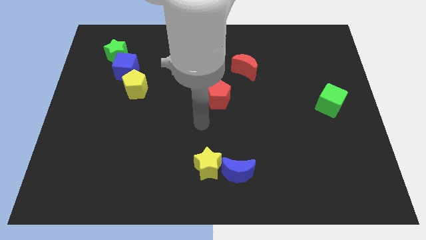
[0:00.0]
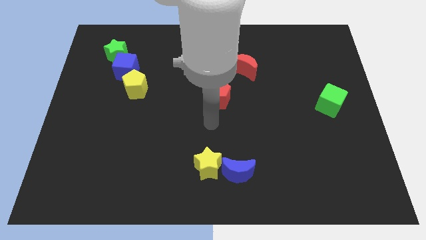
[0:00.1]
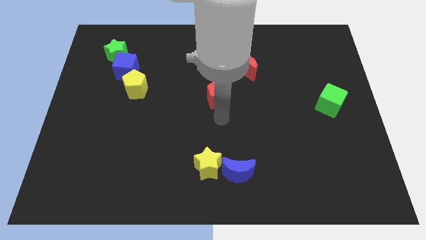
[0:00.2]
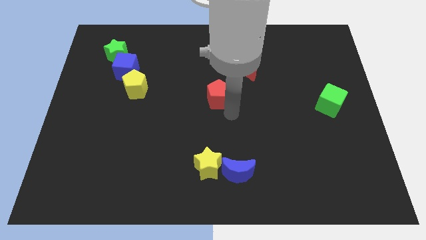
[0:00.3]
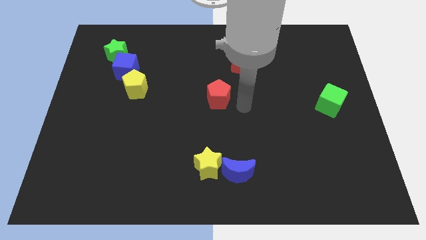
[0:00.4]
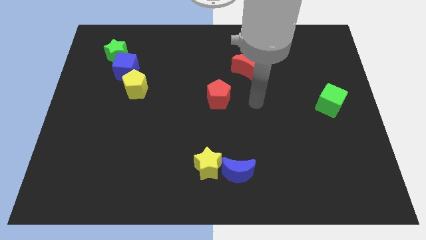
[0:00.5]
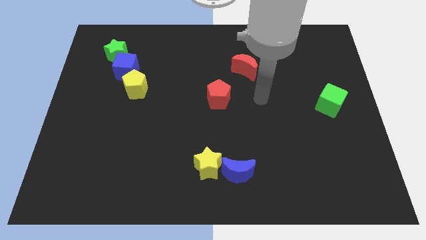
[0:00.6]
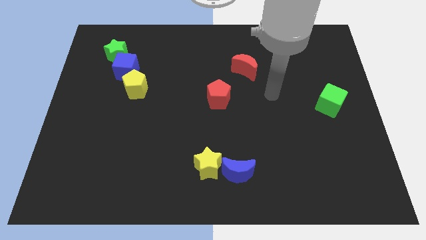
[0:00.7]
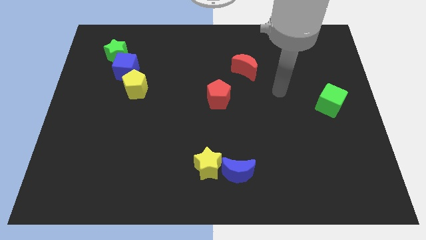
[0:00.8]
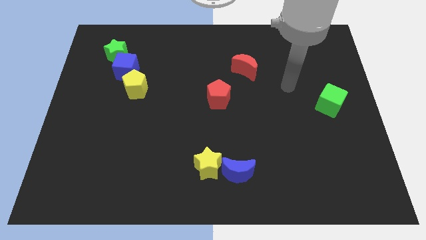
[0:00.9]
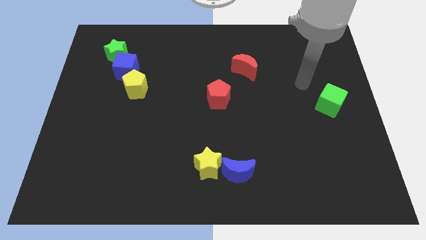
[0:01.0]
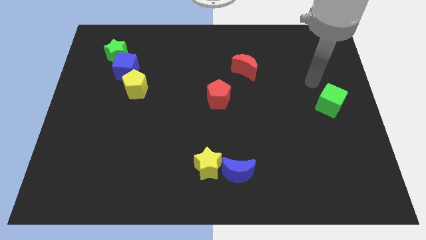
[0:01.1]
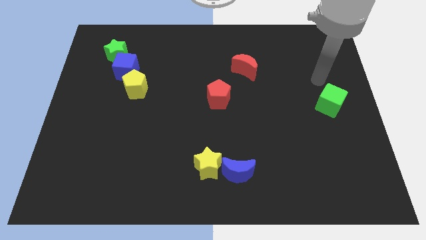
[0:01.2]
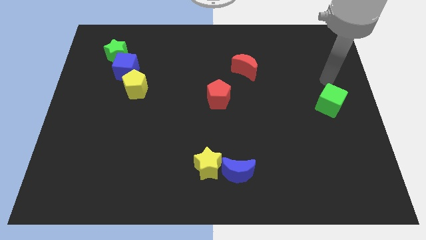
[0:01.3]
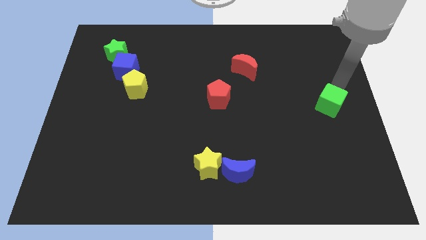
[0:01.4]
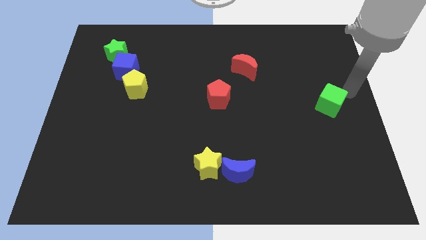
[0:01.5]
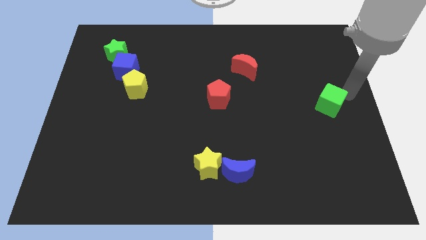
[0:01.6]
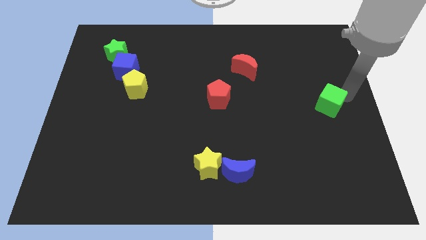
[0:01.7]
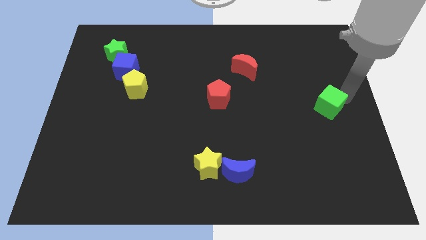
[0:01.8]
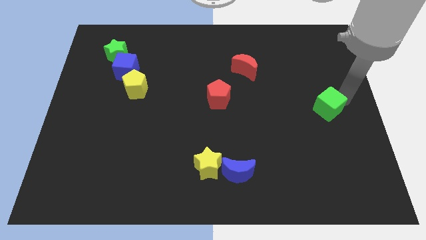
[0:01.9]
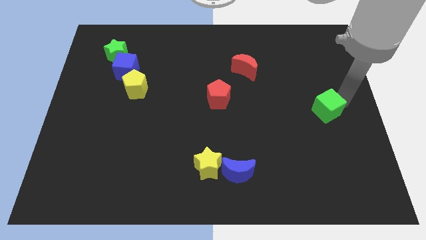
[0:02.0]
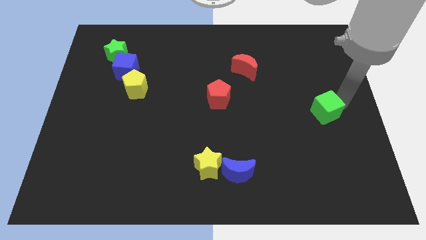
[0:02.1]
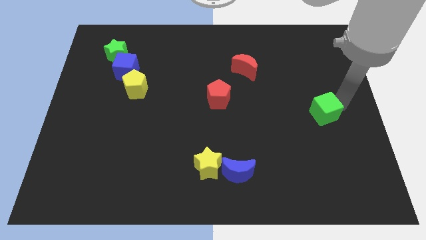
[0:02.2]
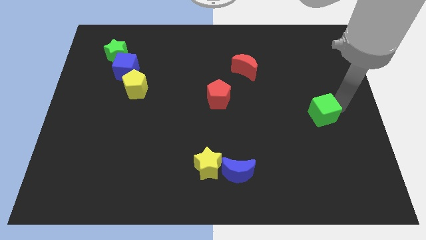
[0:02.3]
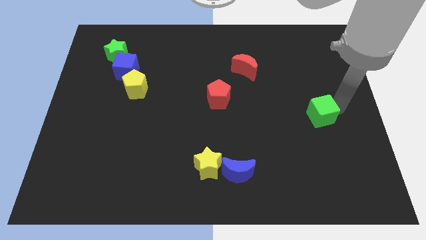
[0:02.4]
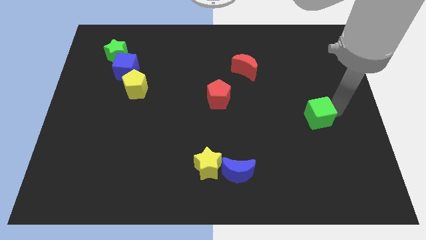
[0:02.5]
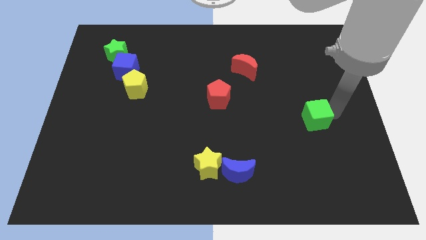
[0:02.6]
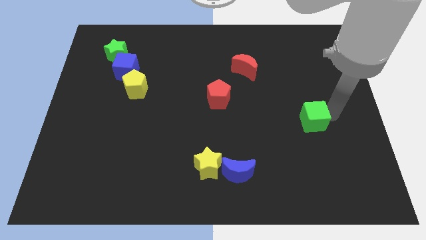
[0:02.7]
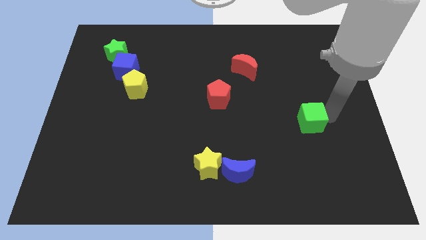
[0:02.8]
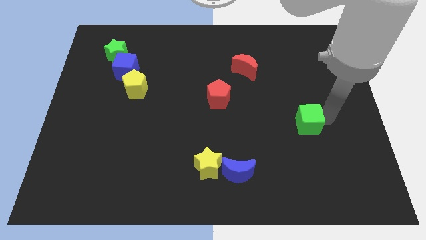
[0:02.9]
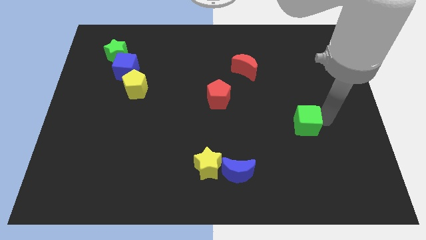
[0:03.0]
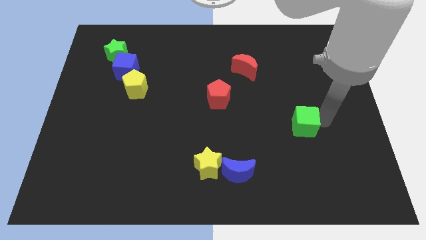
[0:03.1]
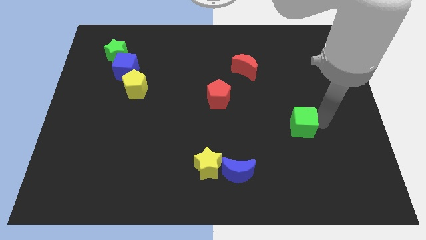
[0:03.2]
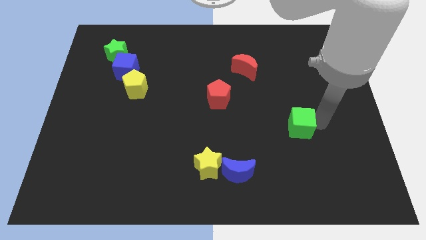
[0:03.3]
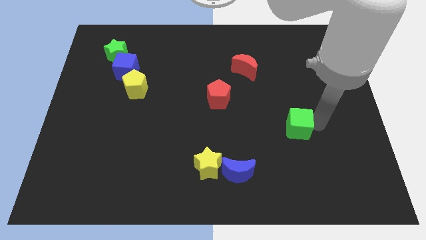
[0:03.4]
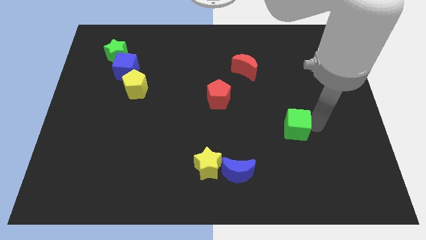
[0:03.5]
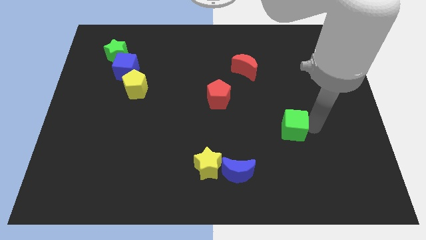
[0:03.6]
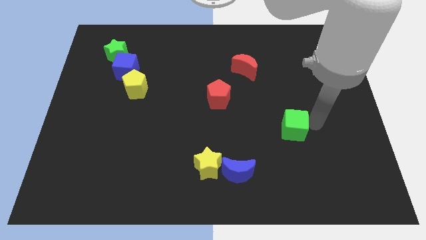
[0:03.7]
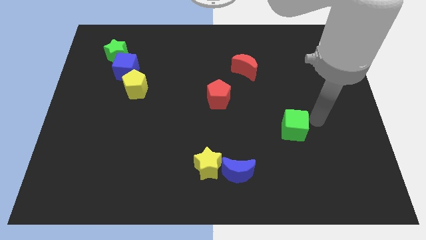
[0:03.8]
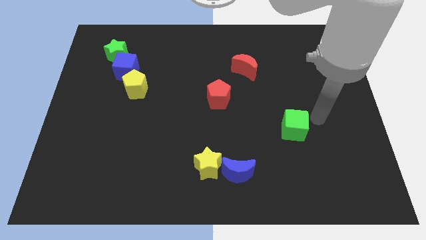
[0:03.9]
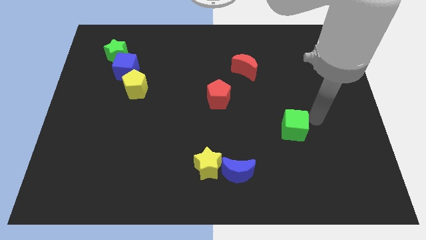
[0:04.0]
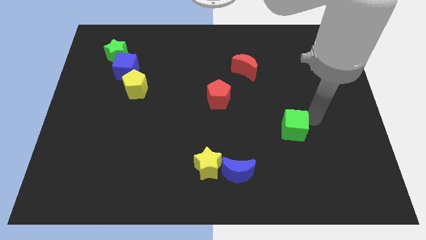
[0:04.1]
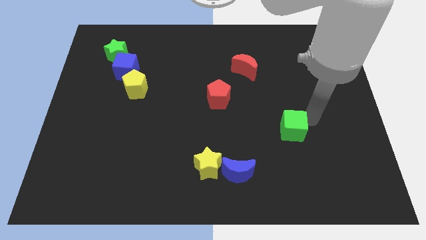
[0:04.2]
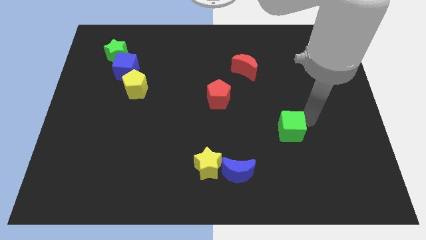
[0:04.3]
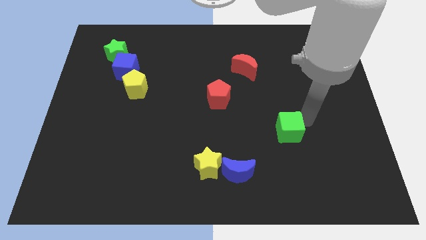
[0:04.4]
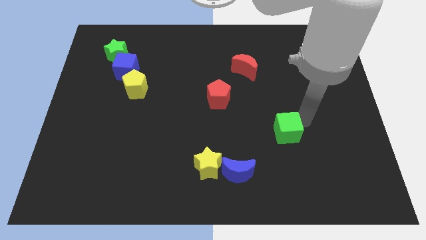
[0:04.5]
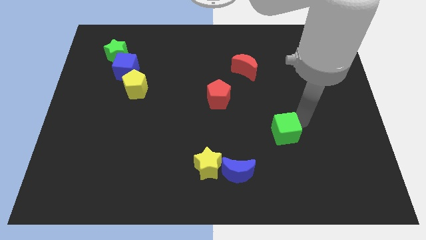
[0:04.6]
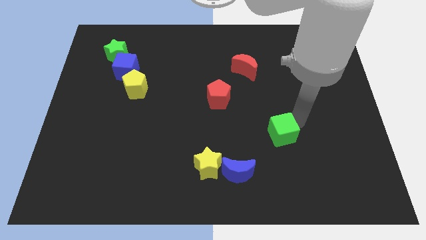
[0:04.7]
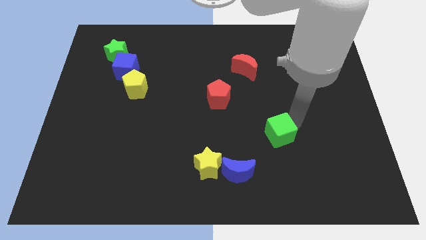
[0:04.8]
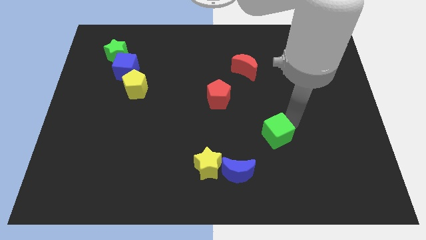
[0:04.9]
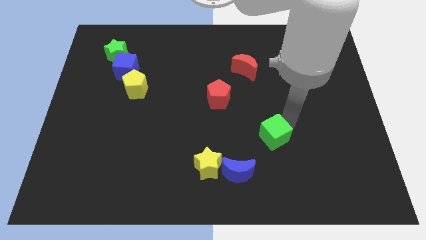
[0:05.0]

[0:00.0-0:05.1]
push the green cube diagonally up and to the right of the blue moon

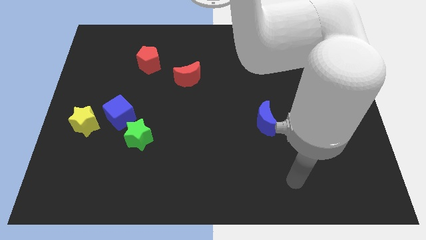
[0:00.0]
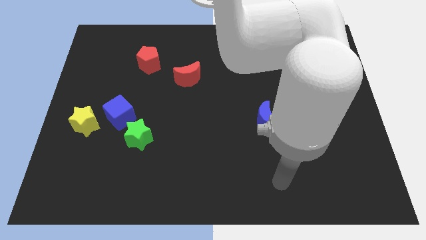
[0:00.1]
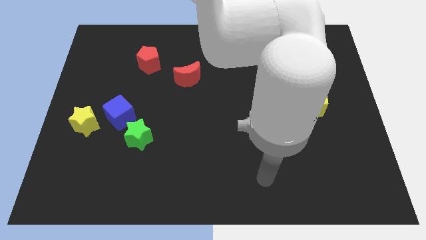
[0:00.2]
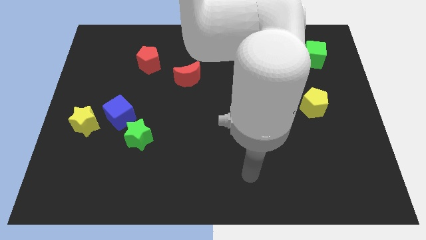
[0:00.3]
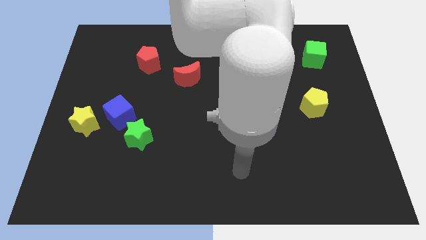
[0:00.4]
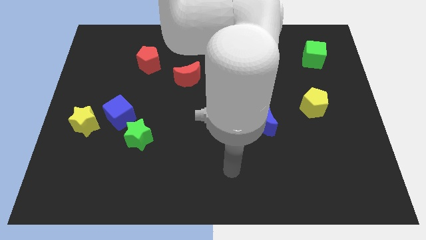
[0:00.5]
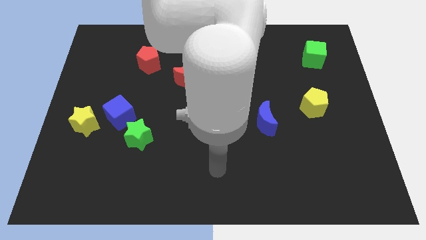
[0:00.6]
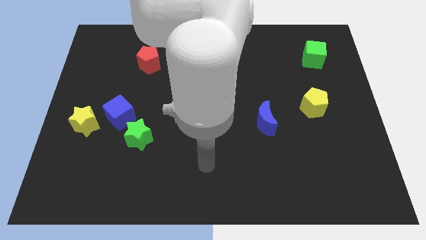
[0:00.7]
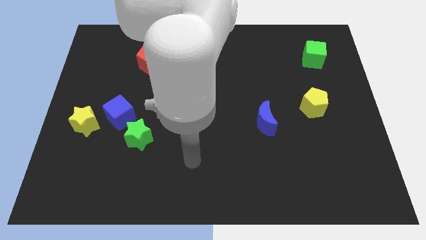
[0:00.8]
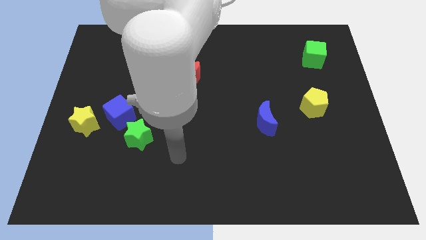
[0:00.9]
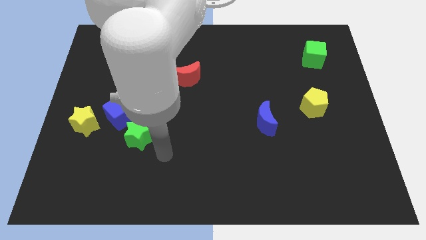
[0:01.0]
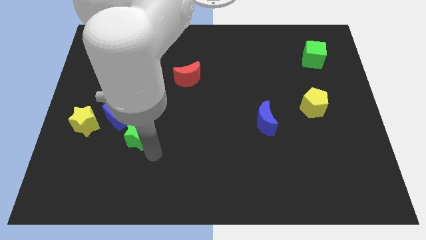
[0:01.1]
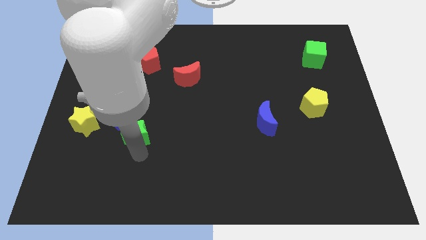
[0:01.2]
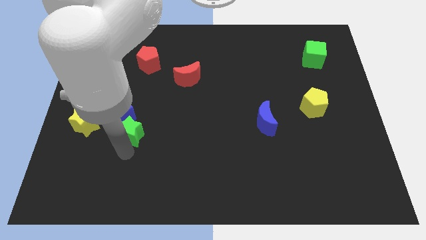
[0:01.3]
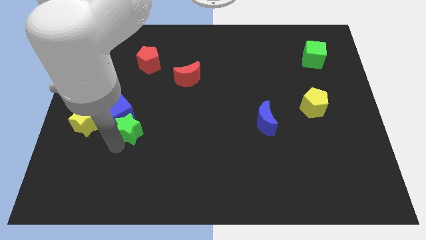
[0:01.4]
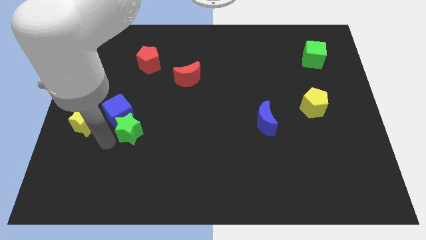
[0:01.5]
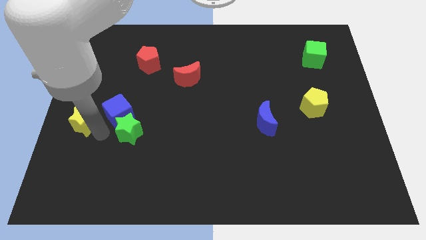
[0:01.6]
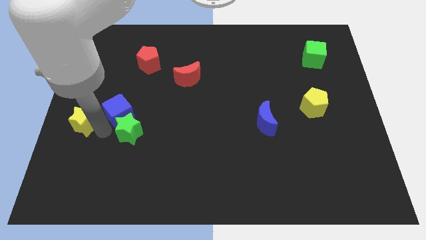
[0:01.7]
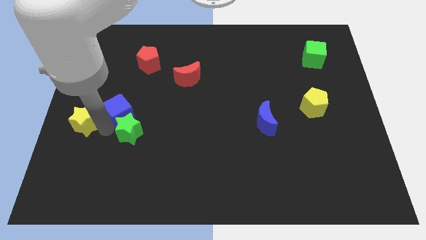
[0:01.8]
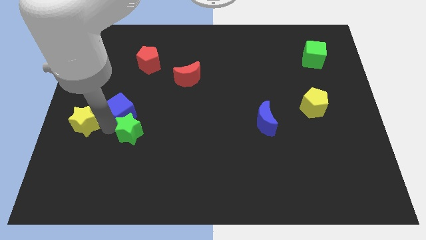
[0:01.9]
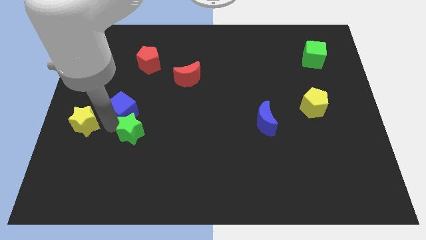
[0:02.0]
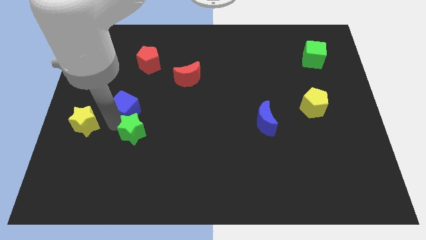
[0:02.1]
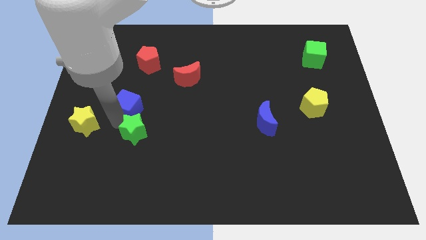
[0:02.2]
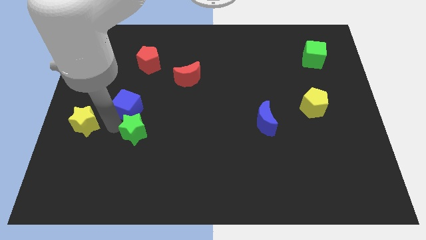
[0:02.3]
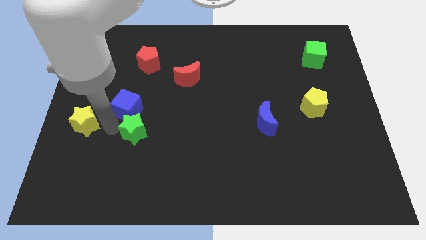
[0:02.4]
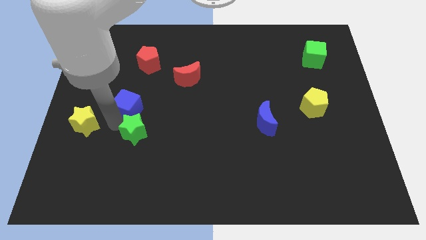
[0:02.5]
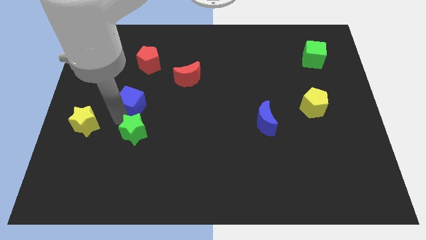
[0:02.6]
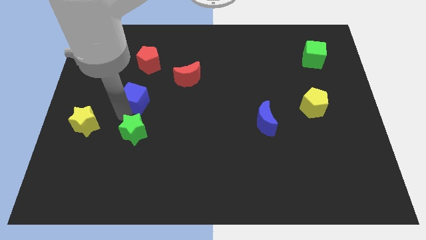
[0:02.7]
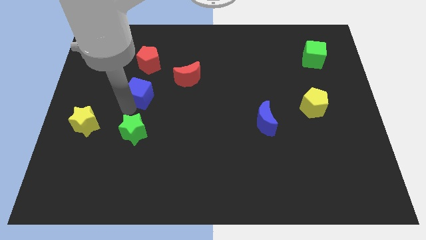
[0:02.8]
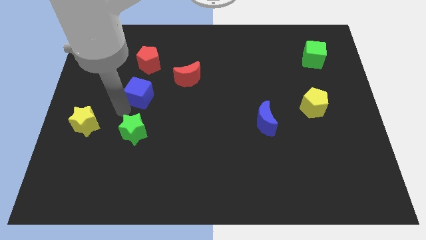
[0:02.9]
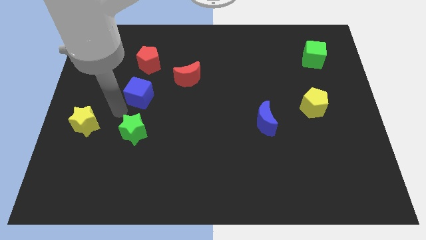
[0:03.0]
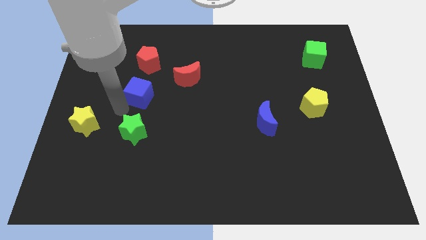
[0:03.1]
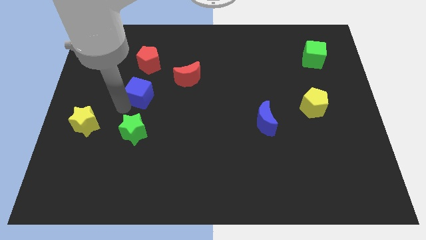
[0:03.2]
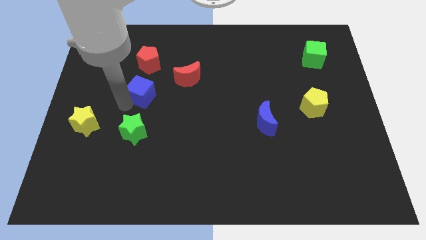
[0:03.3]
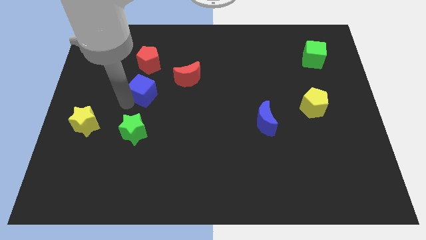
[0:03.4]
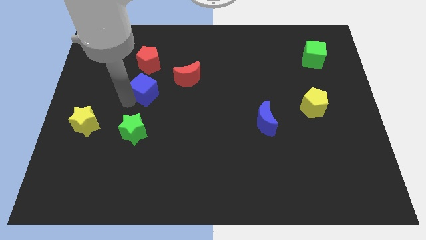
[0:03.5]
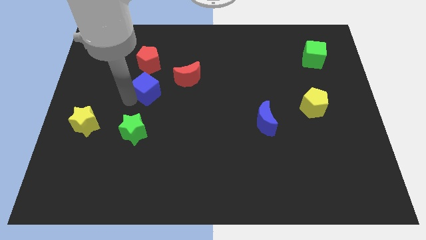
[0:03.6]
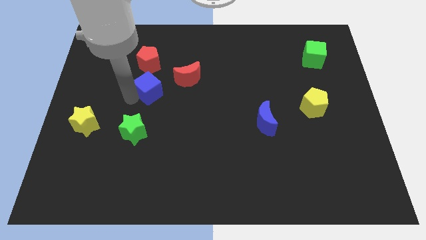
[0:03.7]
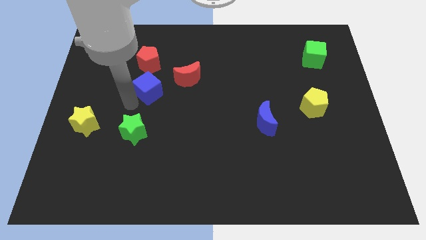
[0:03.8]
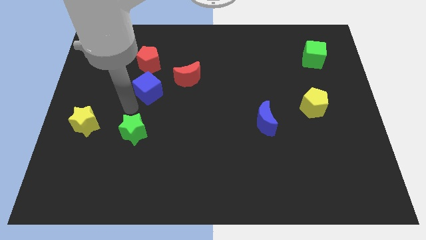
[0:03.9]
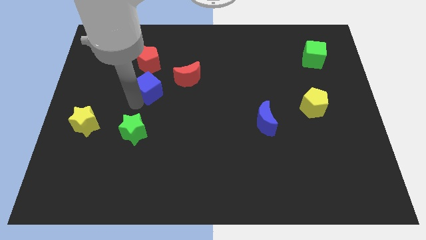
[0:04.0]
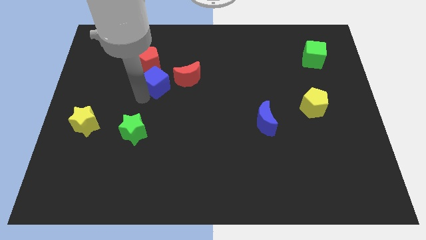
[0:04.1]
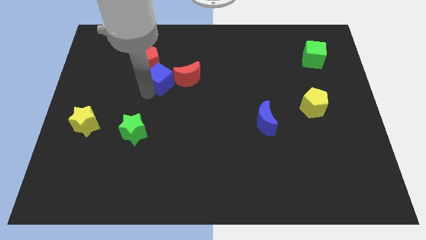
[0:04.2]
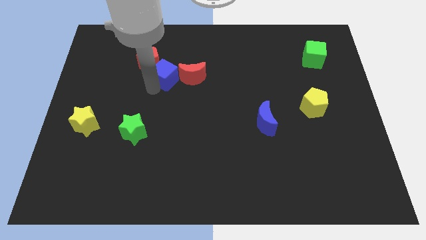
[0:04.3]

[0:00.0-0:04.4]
push the blue cube to the right of the red pentagon
